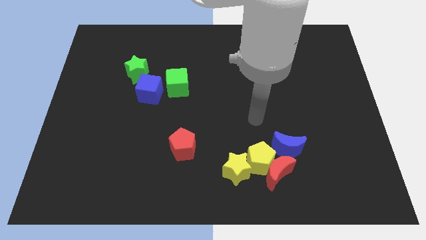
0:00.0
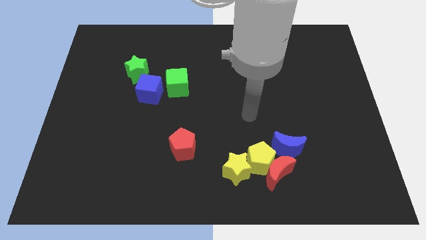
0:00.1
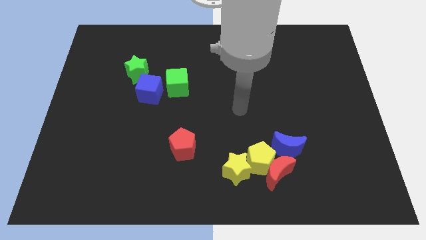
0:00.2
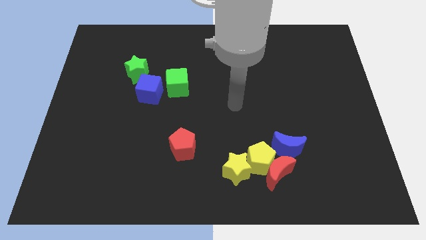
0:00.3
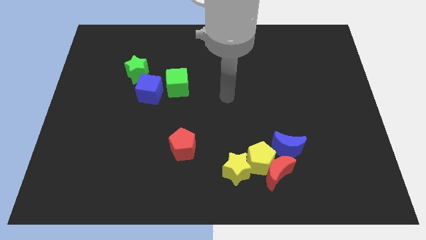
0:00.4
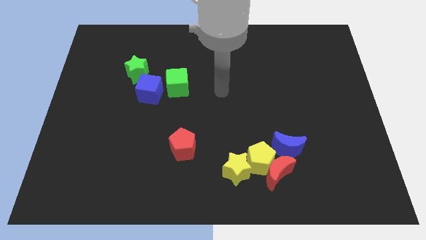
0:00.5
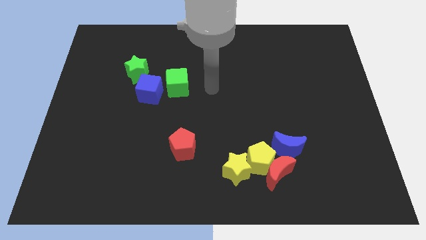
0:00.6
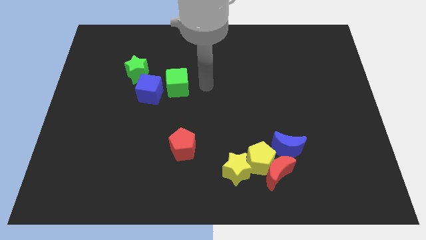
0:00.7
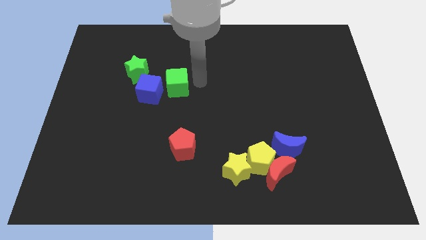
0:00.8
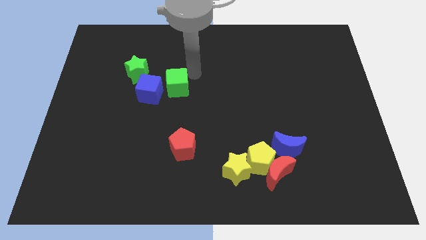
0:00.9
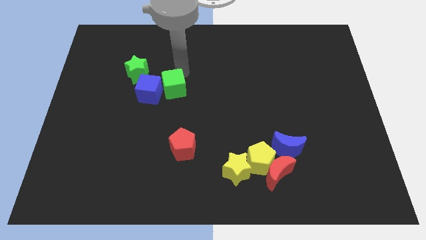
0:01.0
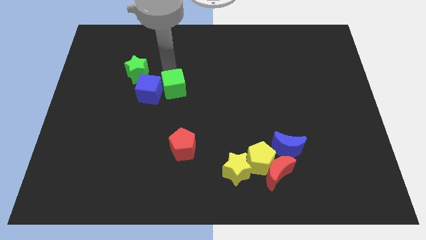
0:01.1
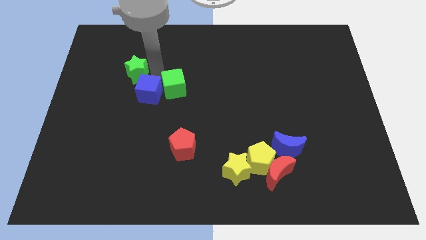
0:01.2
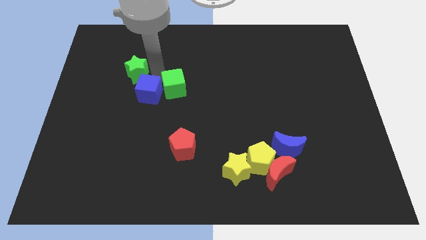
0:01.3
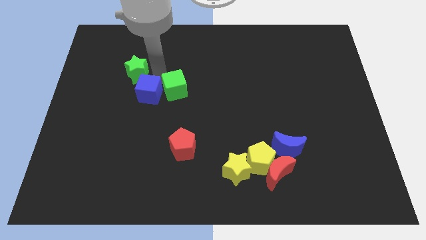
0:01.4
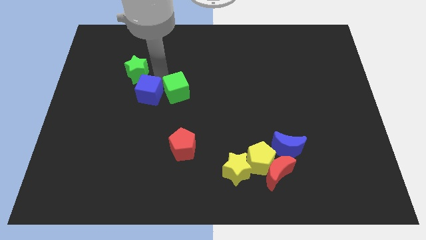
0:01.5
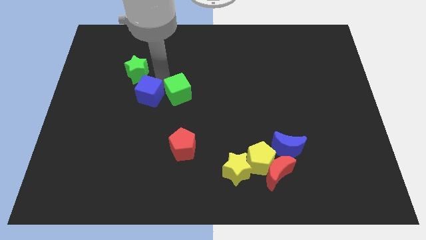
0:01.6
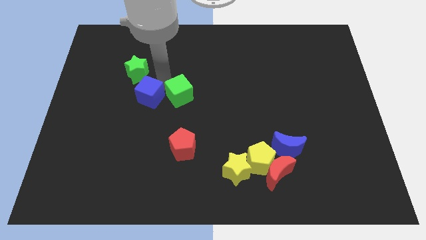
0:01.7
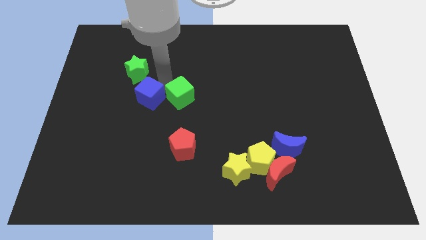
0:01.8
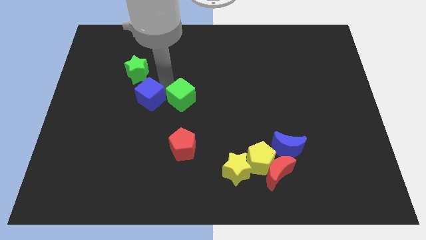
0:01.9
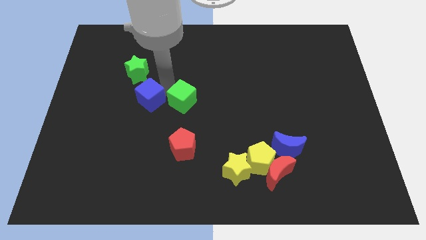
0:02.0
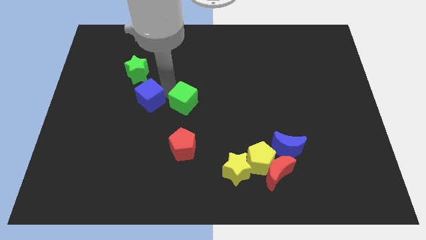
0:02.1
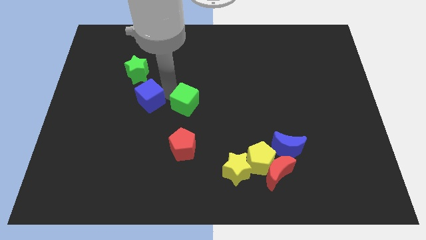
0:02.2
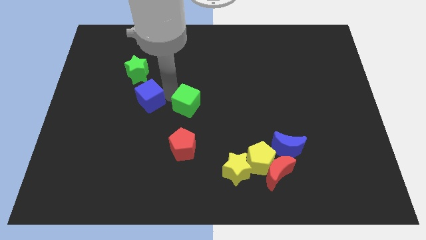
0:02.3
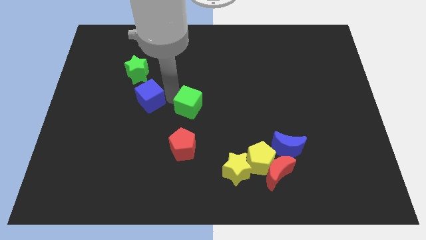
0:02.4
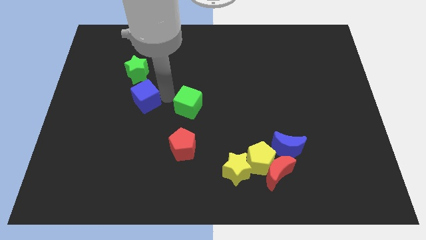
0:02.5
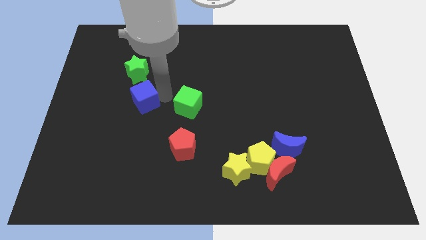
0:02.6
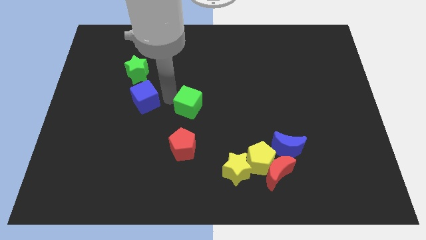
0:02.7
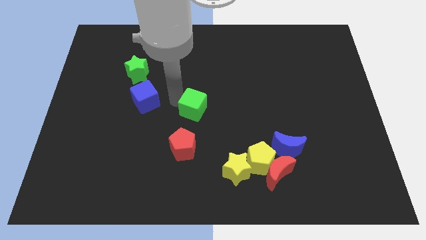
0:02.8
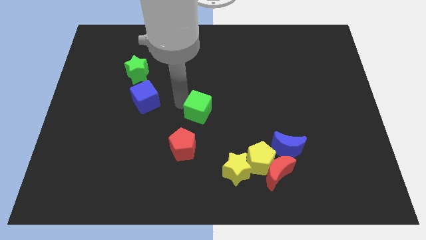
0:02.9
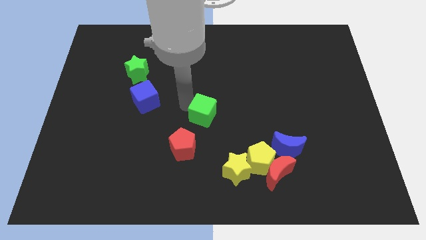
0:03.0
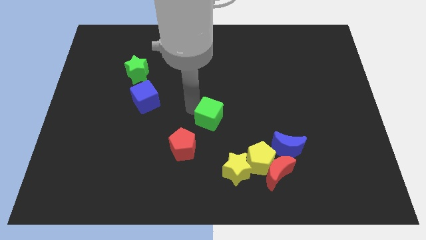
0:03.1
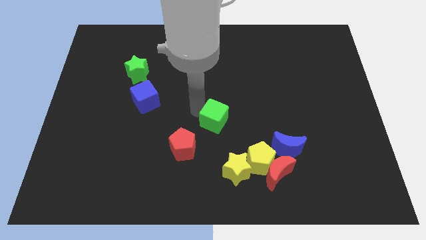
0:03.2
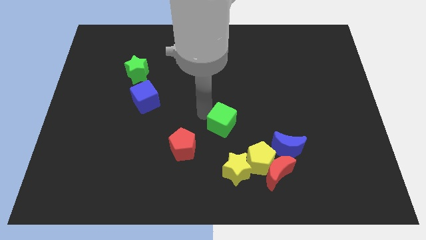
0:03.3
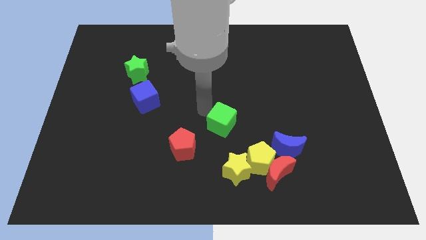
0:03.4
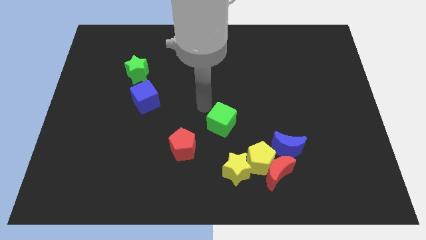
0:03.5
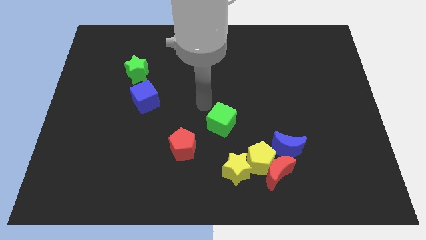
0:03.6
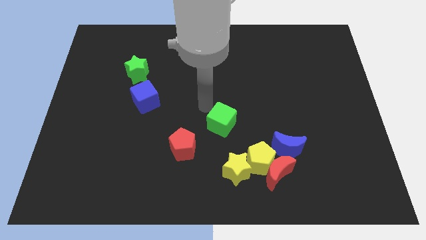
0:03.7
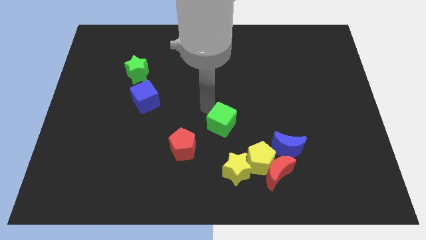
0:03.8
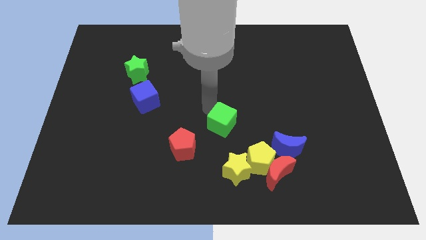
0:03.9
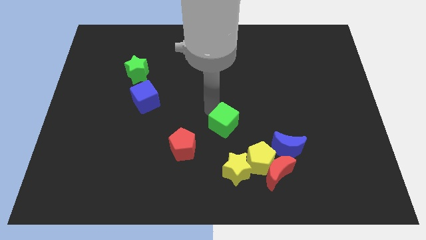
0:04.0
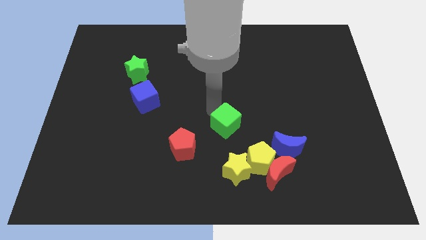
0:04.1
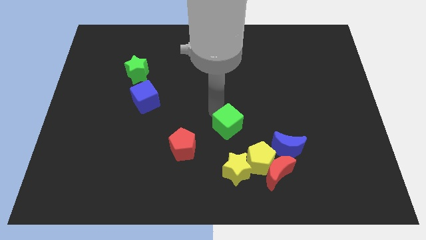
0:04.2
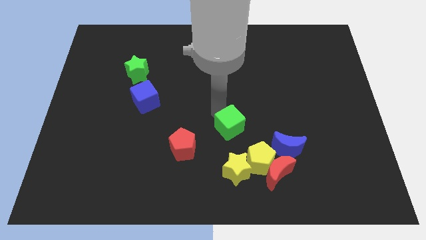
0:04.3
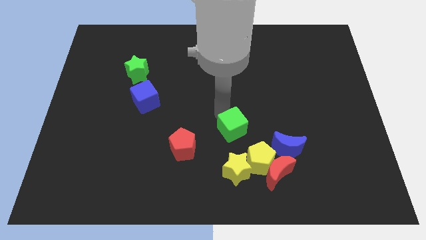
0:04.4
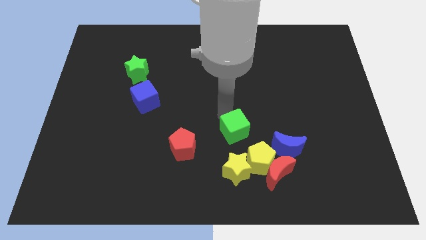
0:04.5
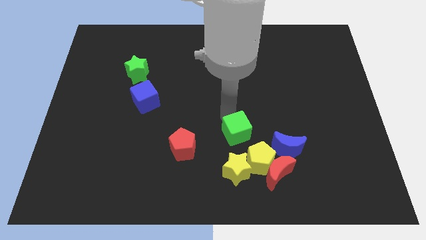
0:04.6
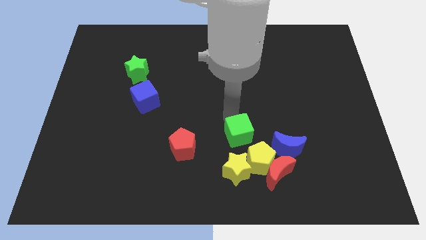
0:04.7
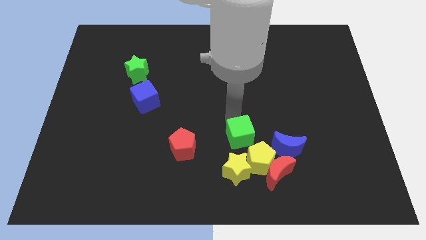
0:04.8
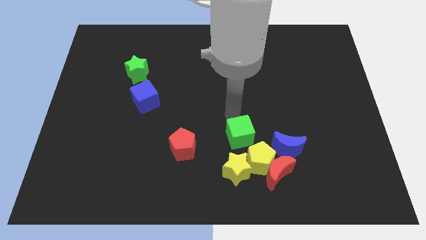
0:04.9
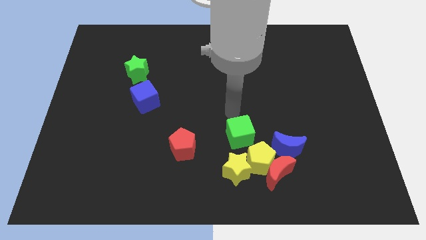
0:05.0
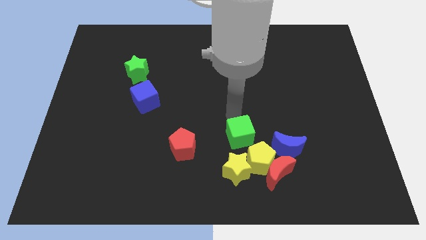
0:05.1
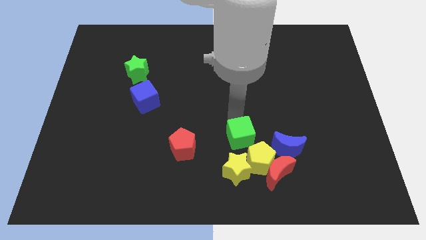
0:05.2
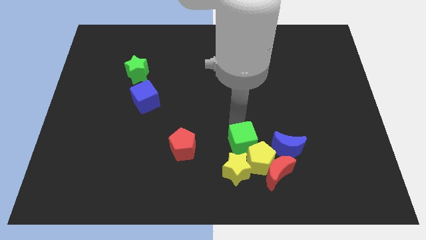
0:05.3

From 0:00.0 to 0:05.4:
put the green cube next to the yellow pentagon
